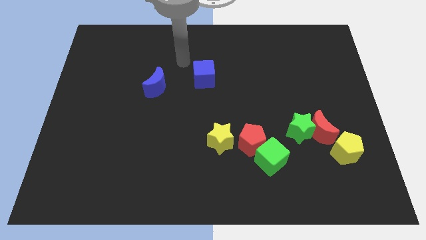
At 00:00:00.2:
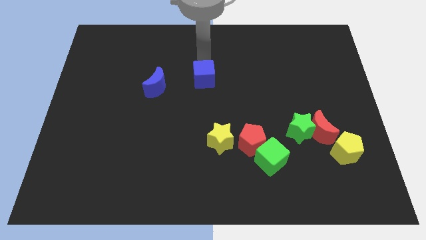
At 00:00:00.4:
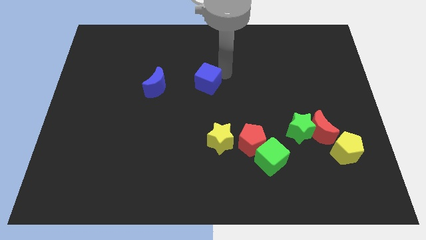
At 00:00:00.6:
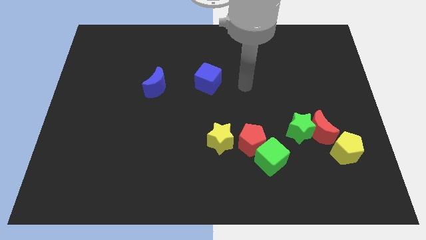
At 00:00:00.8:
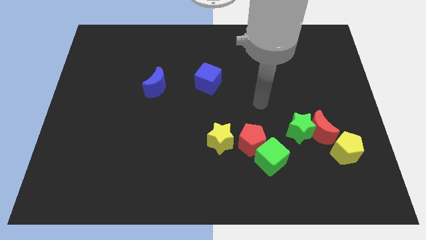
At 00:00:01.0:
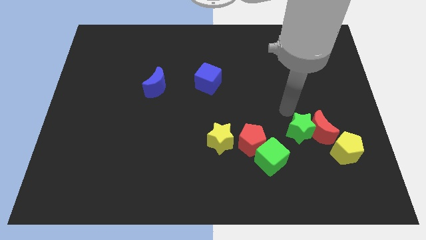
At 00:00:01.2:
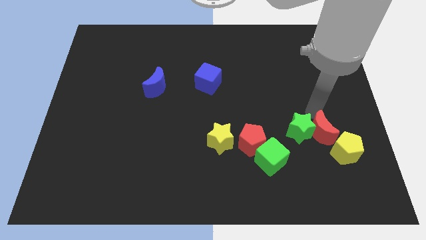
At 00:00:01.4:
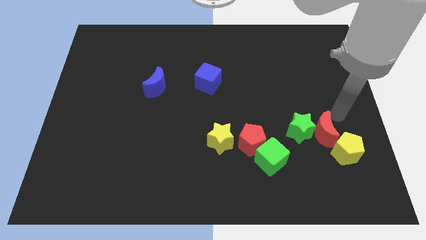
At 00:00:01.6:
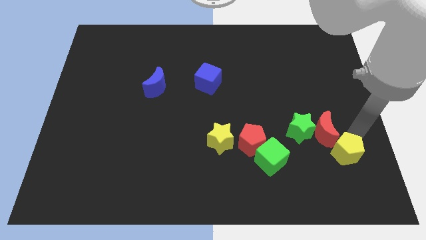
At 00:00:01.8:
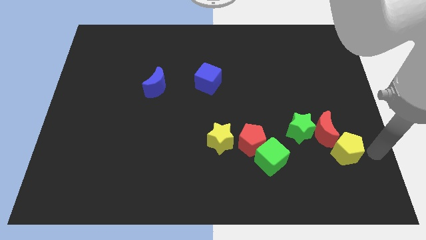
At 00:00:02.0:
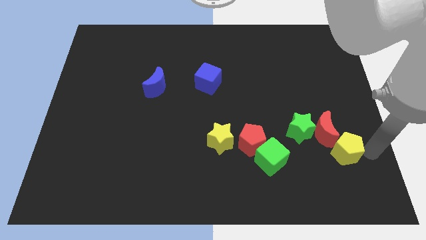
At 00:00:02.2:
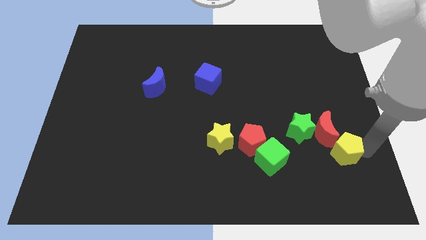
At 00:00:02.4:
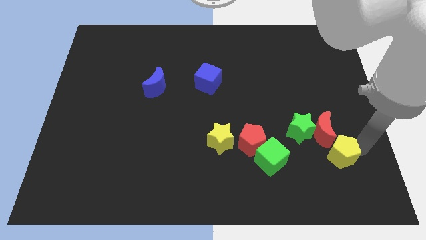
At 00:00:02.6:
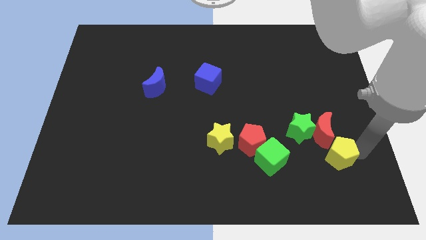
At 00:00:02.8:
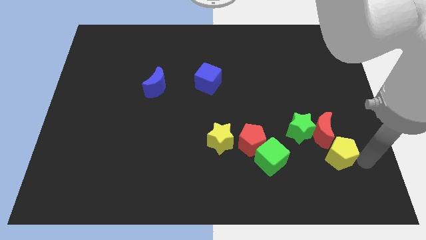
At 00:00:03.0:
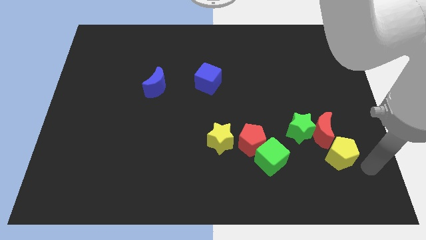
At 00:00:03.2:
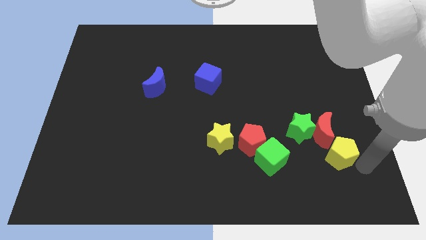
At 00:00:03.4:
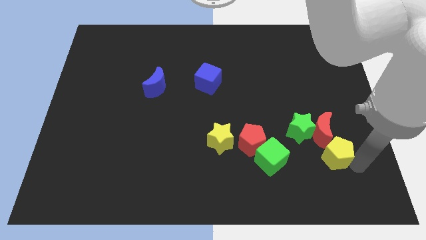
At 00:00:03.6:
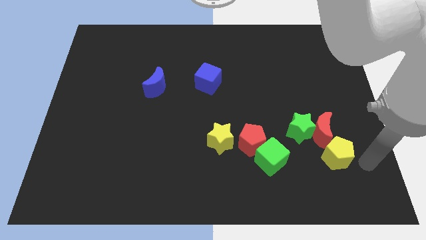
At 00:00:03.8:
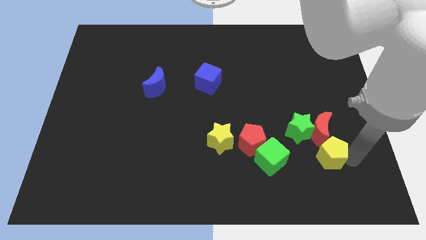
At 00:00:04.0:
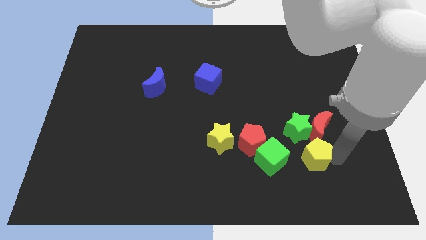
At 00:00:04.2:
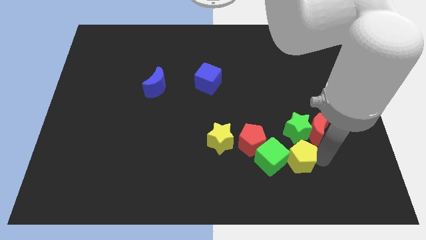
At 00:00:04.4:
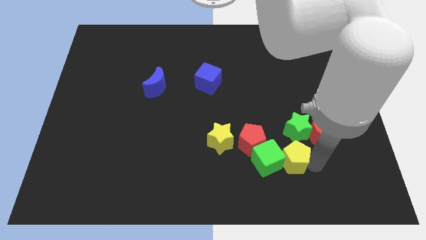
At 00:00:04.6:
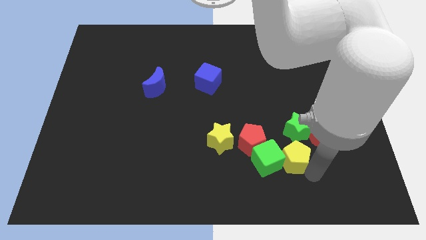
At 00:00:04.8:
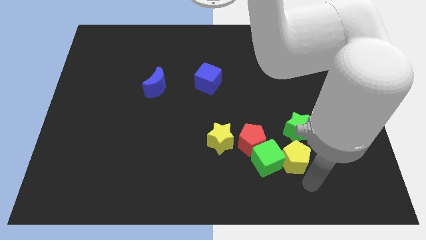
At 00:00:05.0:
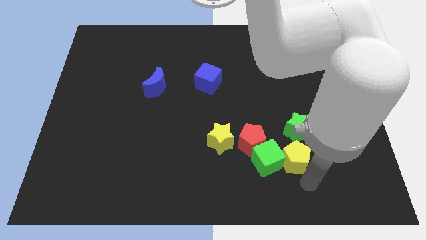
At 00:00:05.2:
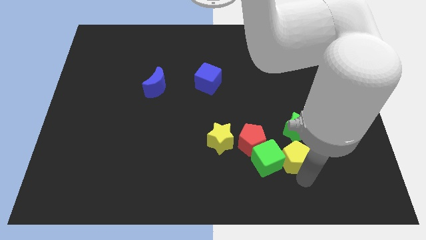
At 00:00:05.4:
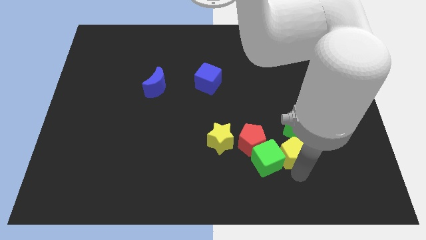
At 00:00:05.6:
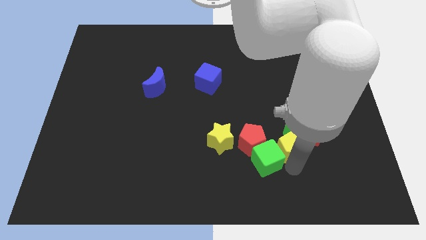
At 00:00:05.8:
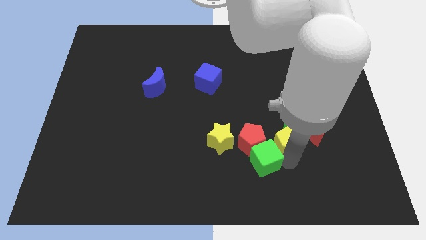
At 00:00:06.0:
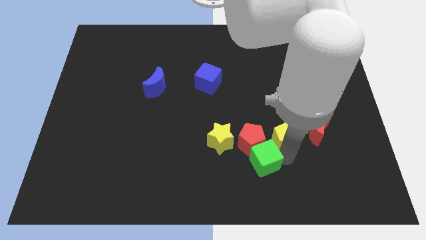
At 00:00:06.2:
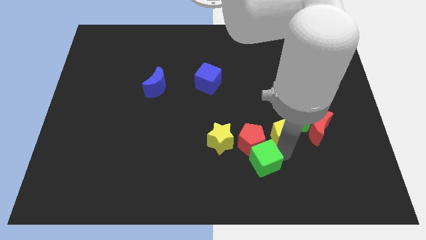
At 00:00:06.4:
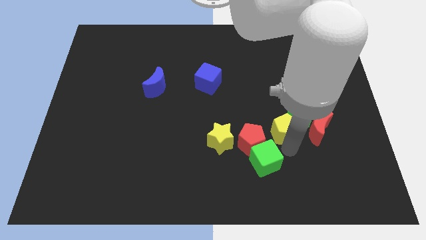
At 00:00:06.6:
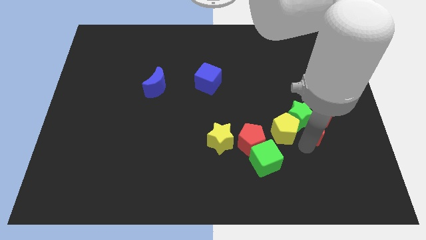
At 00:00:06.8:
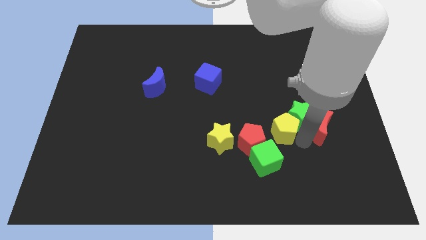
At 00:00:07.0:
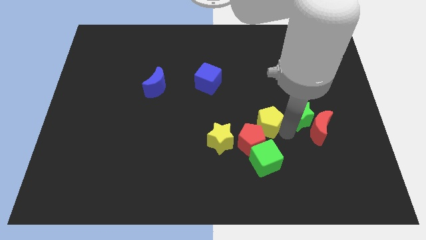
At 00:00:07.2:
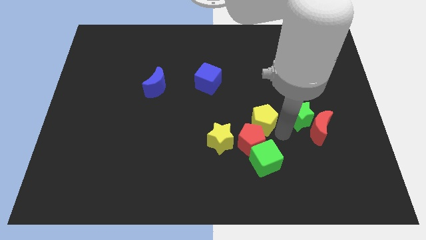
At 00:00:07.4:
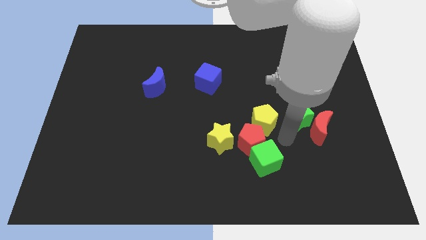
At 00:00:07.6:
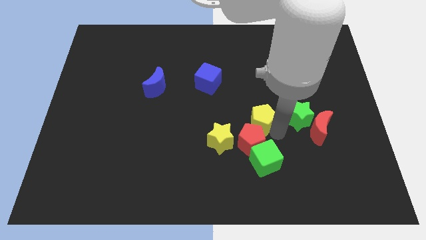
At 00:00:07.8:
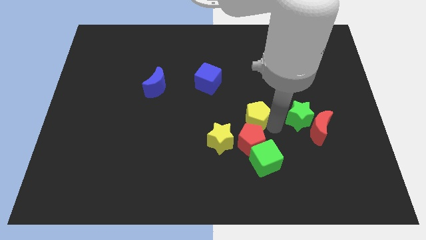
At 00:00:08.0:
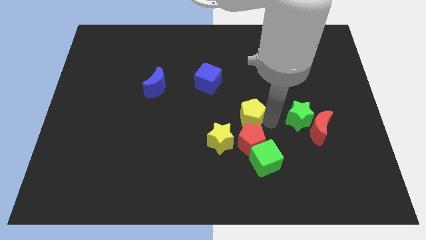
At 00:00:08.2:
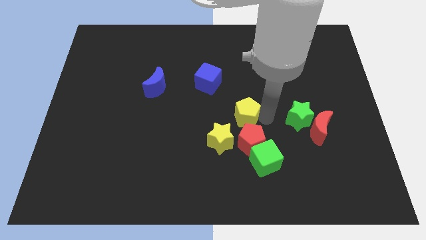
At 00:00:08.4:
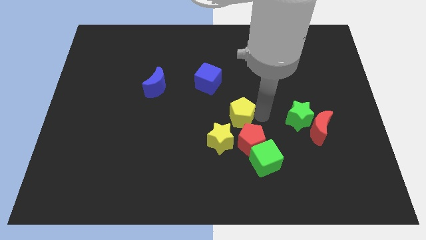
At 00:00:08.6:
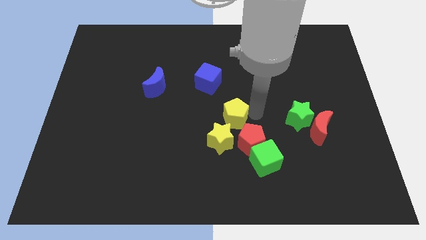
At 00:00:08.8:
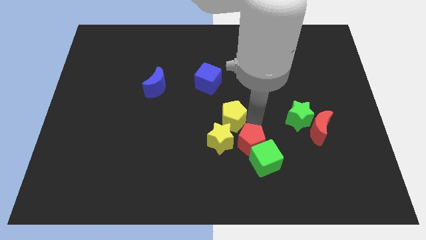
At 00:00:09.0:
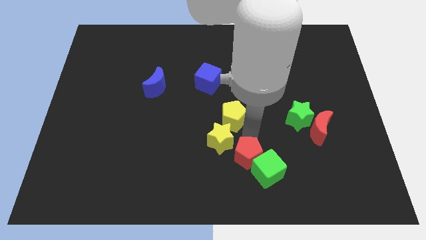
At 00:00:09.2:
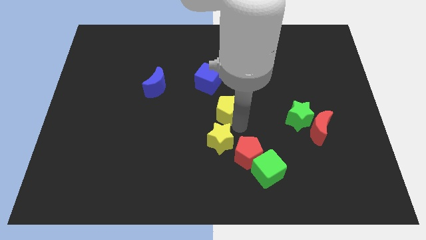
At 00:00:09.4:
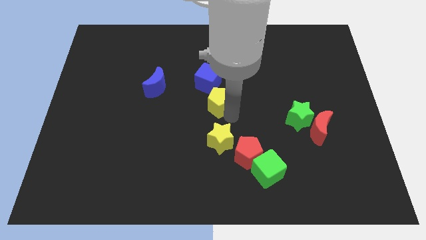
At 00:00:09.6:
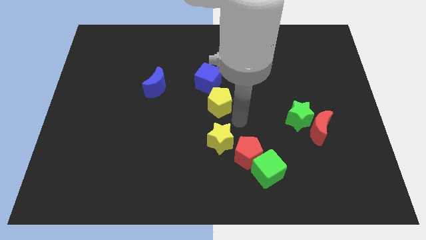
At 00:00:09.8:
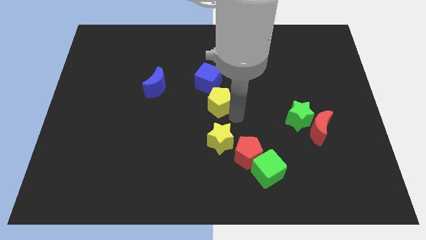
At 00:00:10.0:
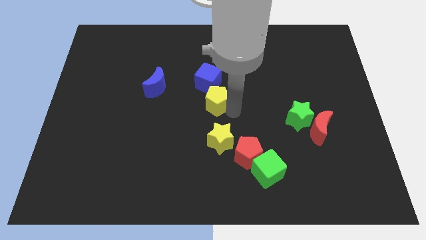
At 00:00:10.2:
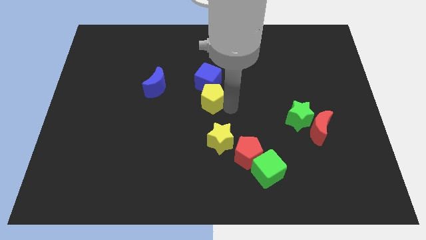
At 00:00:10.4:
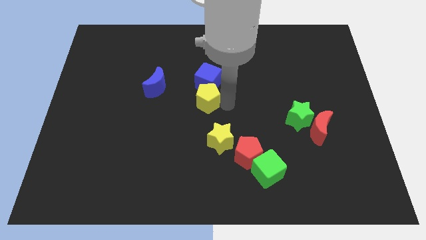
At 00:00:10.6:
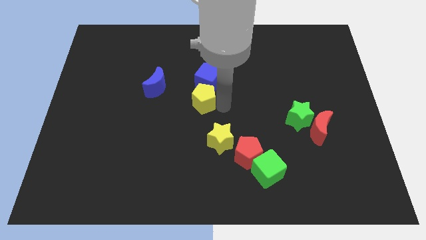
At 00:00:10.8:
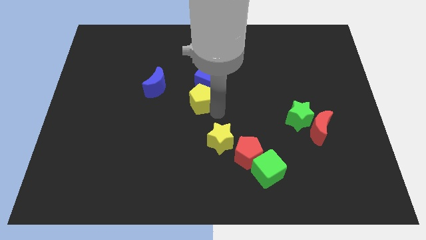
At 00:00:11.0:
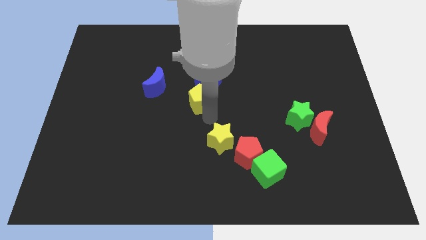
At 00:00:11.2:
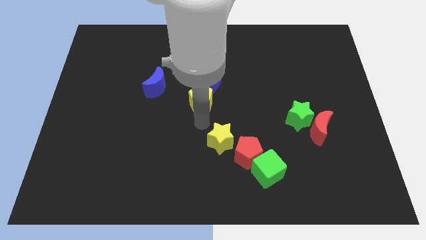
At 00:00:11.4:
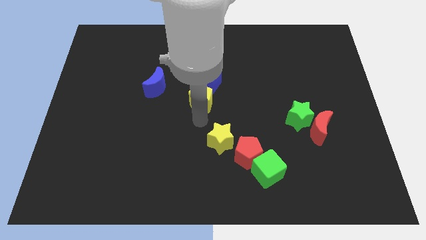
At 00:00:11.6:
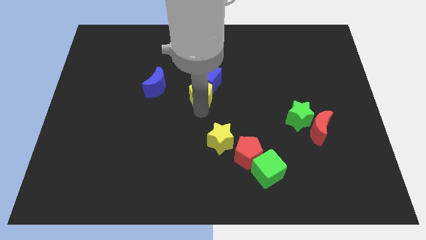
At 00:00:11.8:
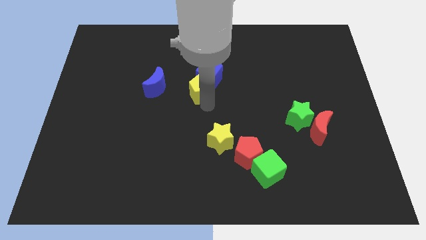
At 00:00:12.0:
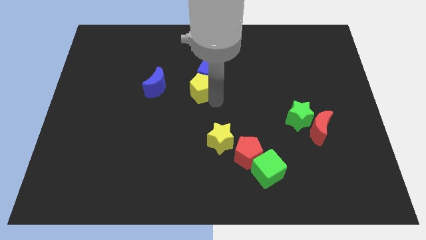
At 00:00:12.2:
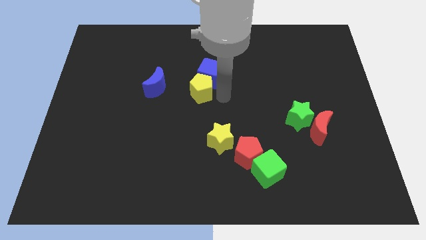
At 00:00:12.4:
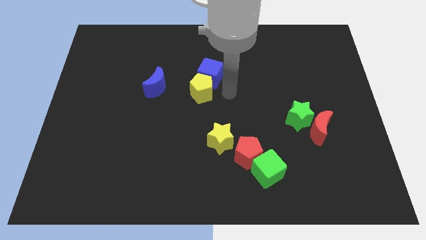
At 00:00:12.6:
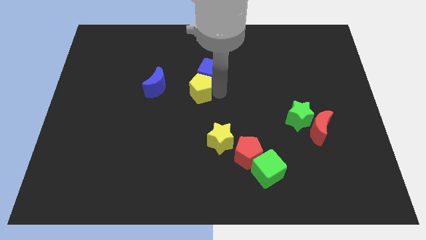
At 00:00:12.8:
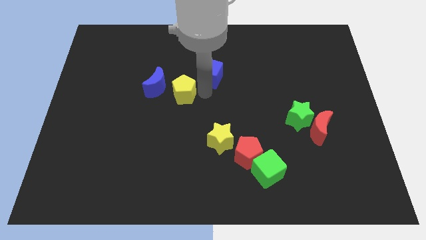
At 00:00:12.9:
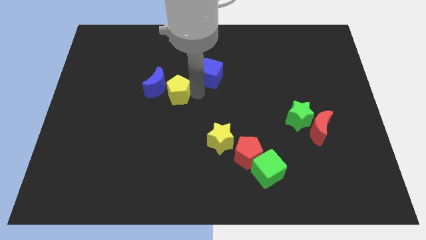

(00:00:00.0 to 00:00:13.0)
slide the yellow pentagon towards the blue moon

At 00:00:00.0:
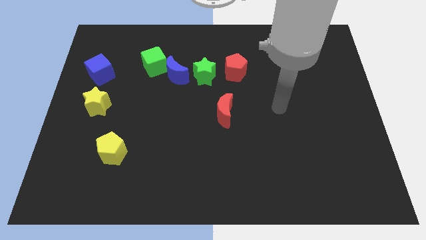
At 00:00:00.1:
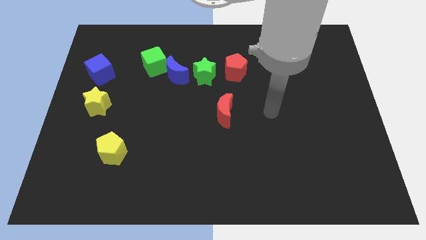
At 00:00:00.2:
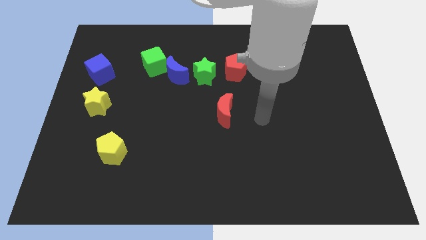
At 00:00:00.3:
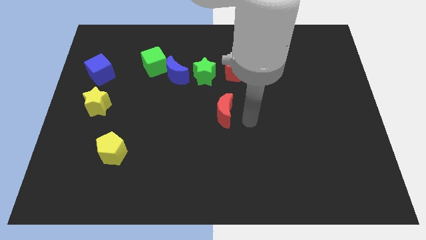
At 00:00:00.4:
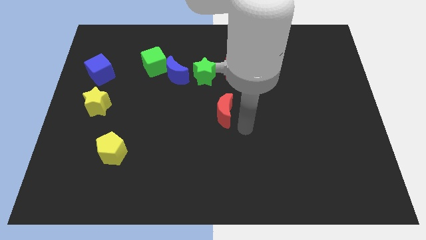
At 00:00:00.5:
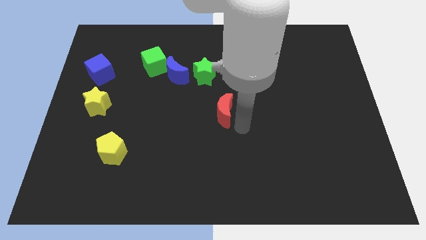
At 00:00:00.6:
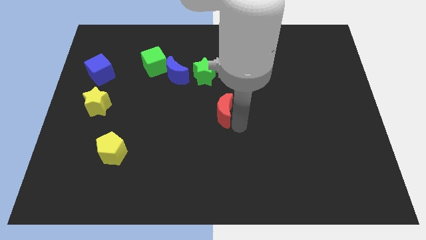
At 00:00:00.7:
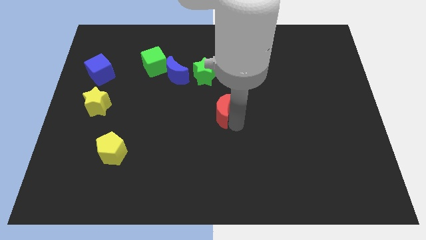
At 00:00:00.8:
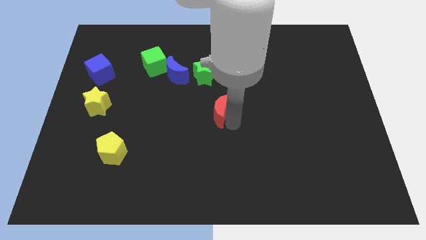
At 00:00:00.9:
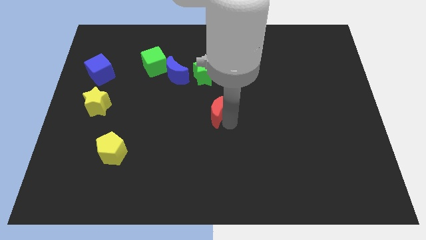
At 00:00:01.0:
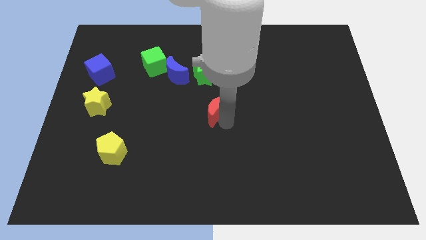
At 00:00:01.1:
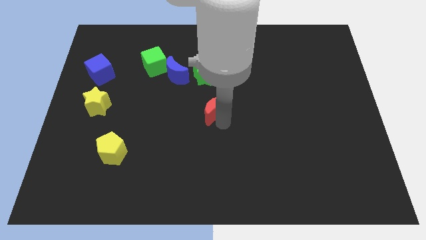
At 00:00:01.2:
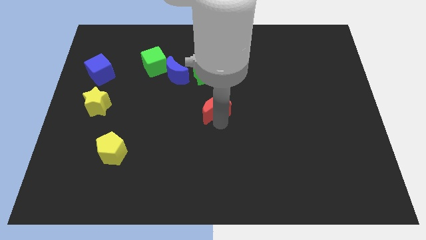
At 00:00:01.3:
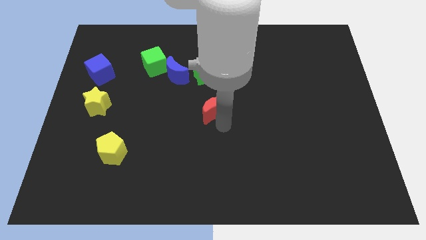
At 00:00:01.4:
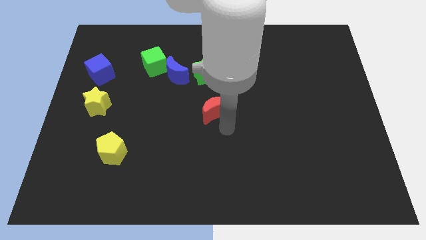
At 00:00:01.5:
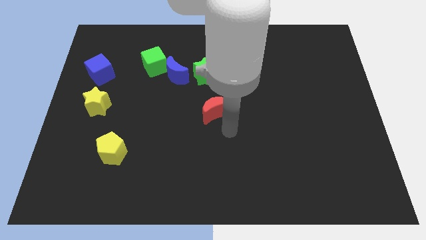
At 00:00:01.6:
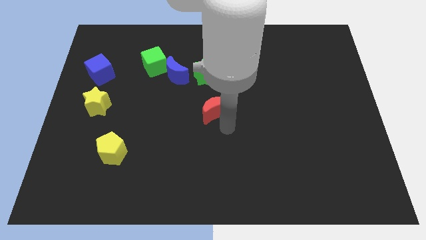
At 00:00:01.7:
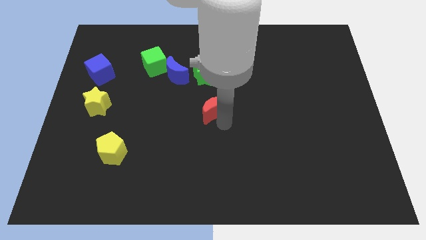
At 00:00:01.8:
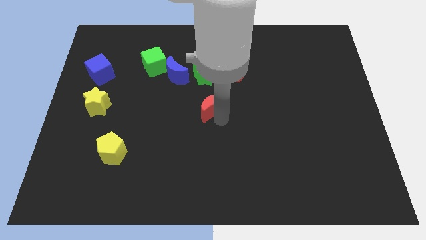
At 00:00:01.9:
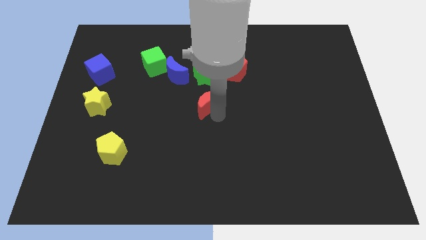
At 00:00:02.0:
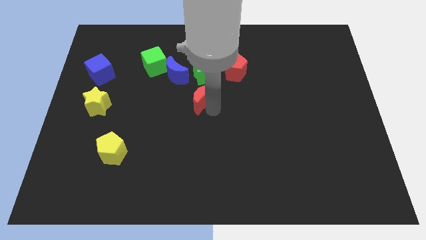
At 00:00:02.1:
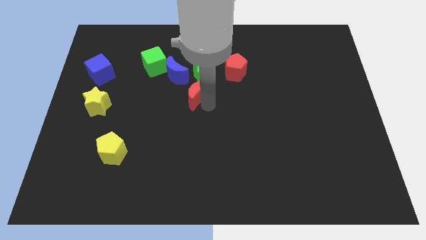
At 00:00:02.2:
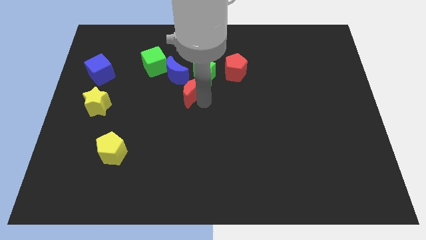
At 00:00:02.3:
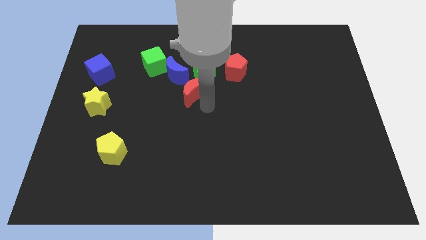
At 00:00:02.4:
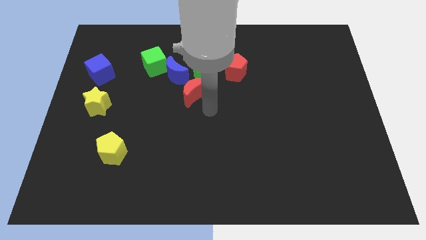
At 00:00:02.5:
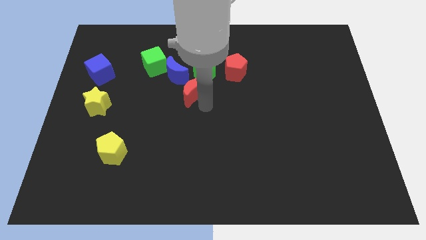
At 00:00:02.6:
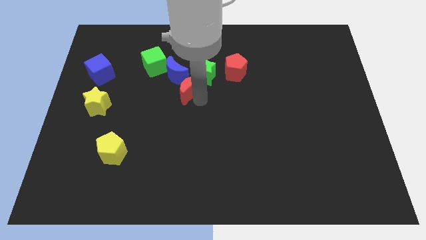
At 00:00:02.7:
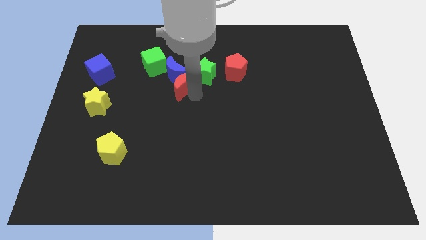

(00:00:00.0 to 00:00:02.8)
put the red moon towards the blue moon
